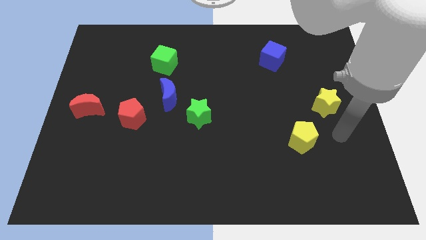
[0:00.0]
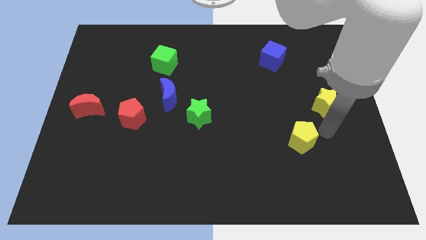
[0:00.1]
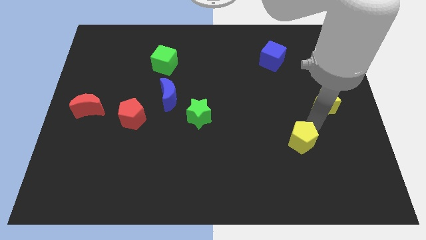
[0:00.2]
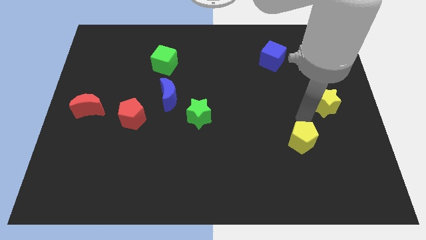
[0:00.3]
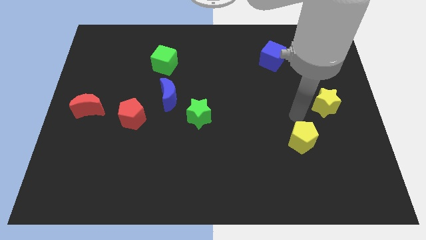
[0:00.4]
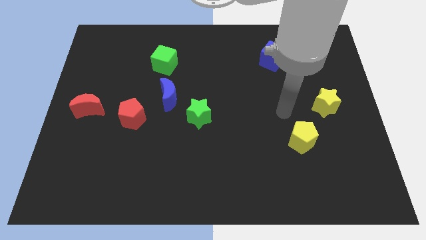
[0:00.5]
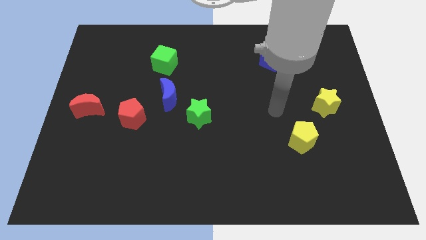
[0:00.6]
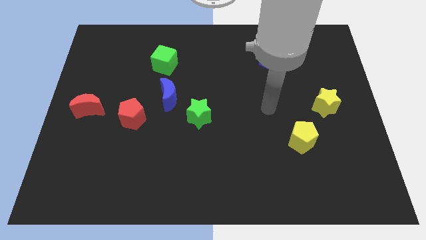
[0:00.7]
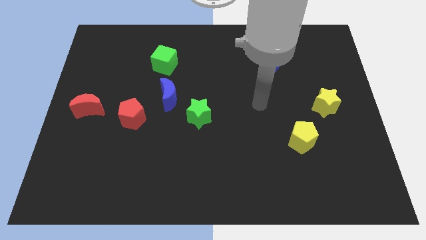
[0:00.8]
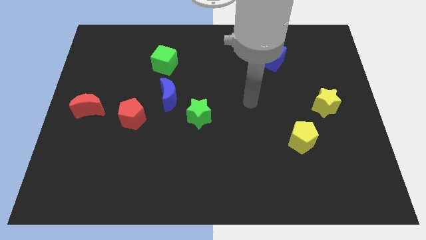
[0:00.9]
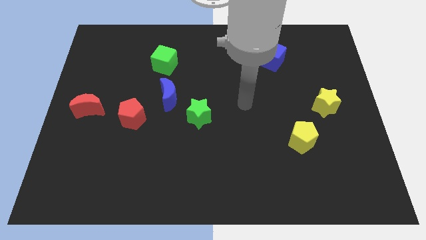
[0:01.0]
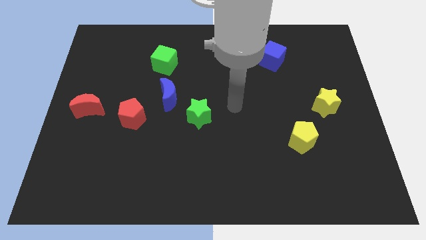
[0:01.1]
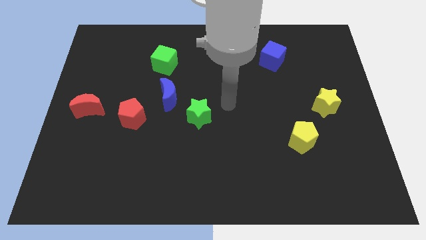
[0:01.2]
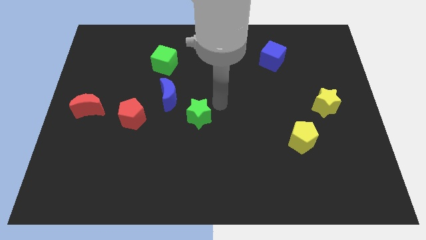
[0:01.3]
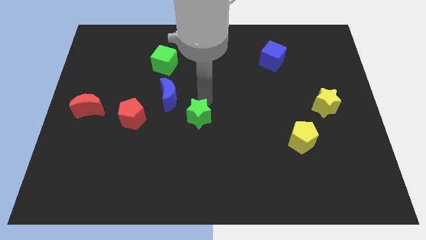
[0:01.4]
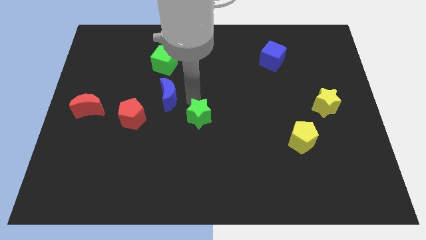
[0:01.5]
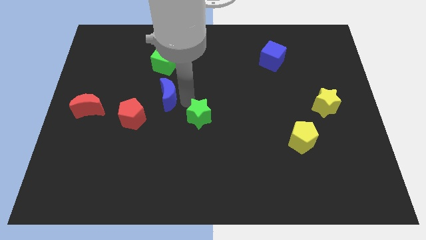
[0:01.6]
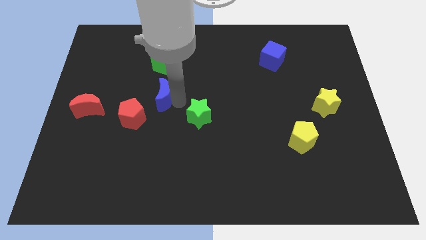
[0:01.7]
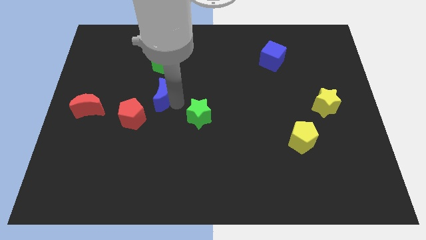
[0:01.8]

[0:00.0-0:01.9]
move the green star away from the blue moon

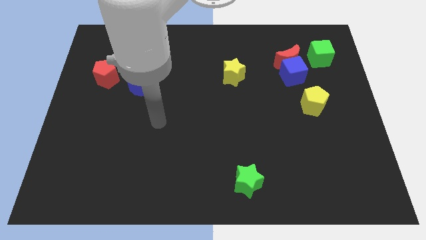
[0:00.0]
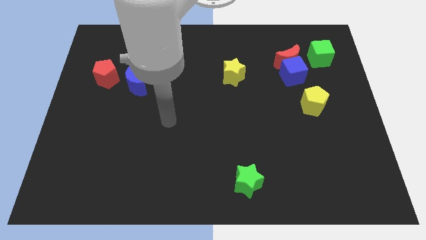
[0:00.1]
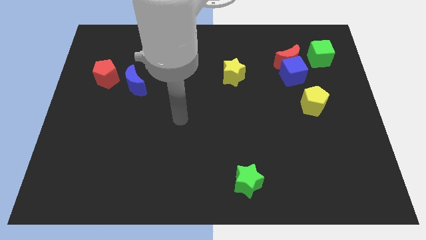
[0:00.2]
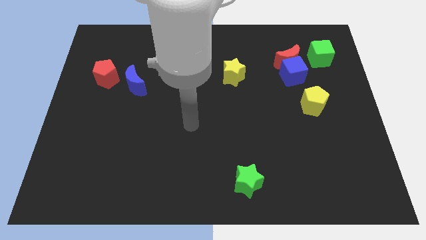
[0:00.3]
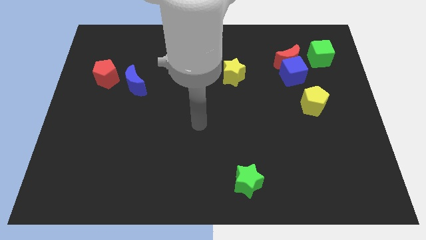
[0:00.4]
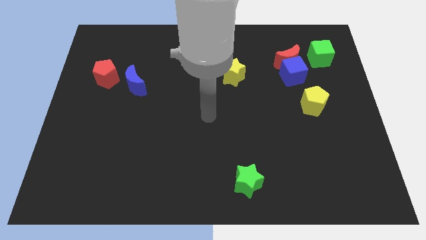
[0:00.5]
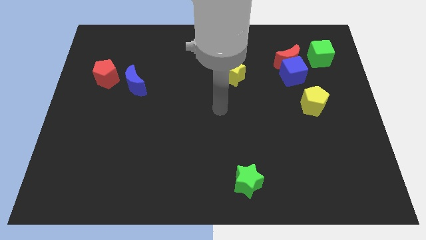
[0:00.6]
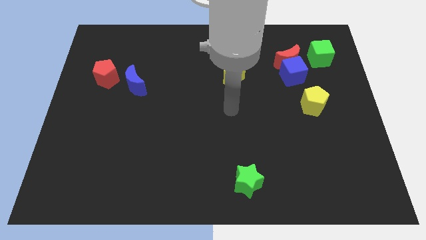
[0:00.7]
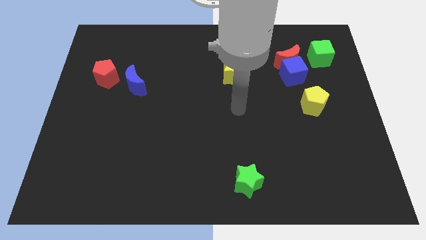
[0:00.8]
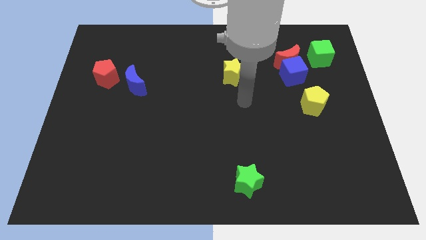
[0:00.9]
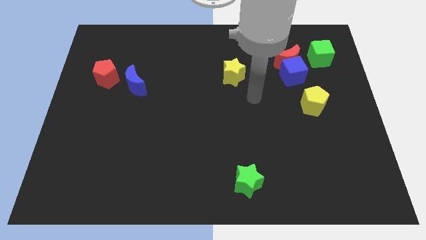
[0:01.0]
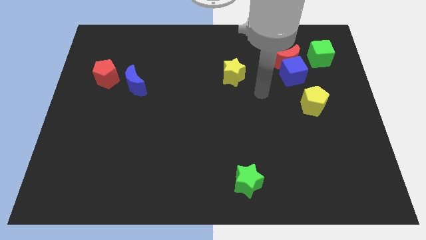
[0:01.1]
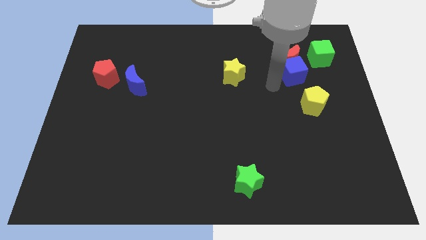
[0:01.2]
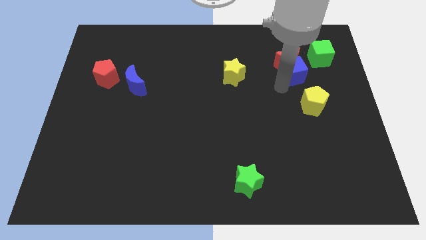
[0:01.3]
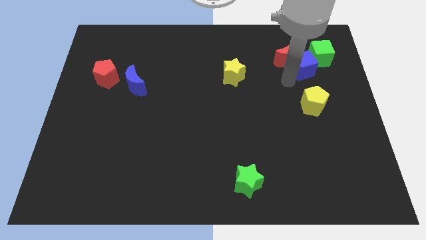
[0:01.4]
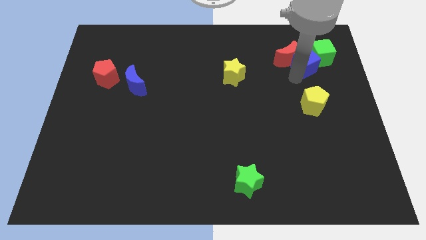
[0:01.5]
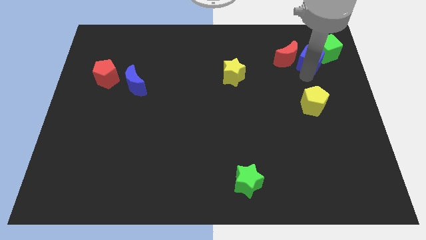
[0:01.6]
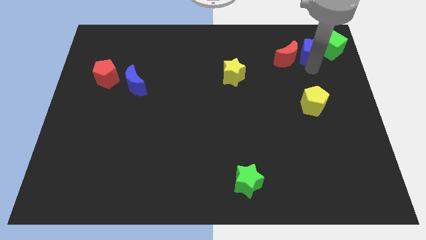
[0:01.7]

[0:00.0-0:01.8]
pull the red moon apart from the blue cube and green cube

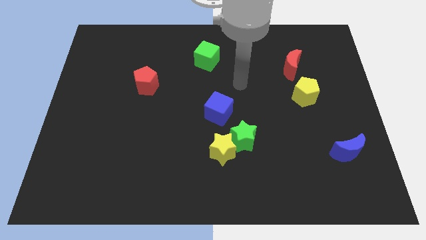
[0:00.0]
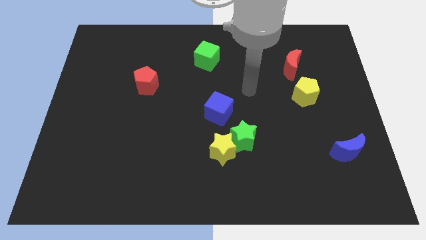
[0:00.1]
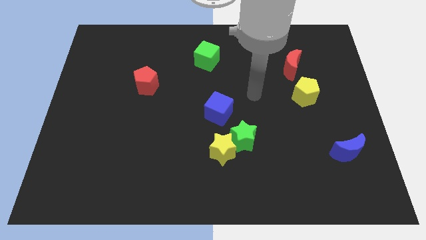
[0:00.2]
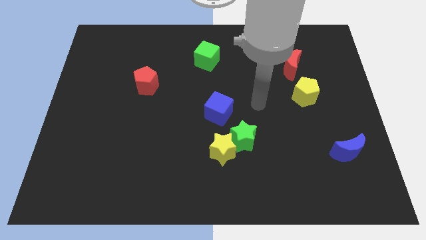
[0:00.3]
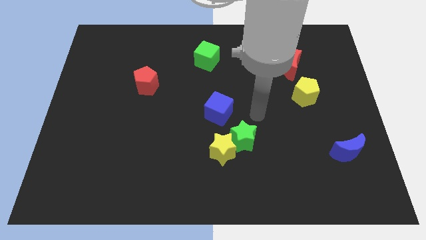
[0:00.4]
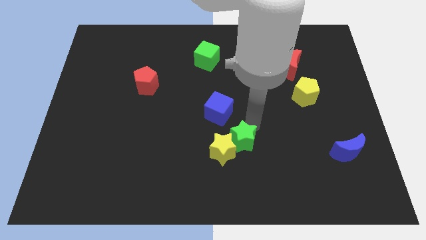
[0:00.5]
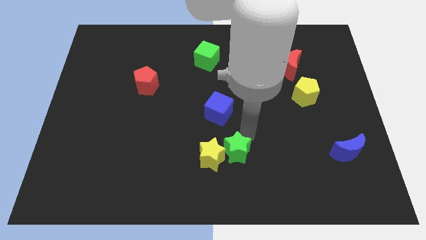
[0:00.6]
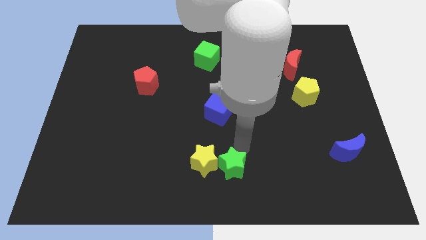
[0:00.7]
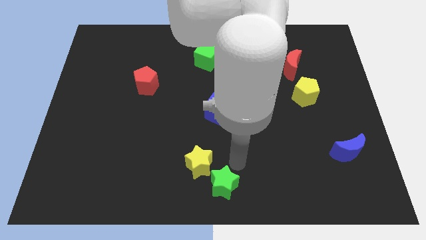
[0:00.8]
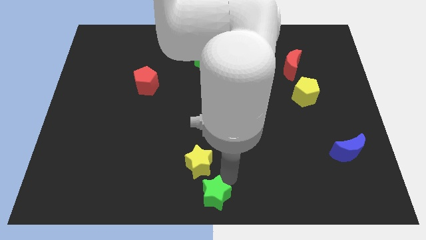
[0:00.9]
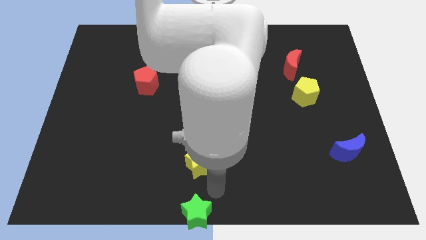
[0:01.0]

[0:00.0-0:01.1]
pull the yellow star apart from the green star

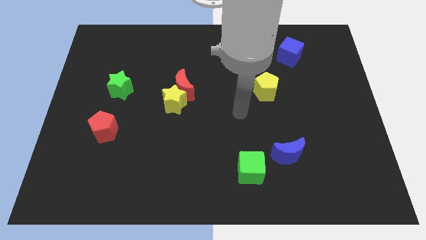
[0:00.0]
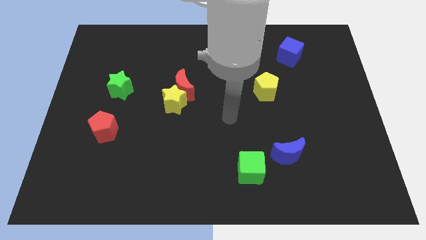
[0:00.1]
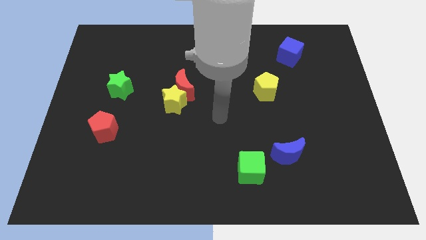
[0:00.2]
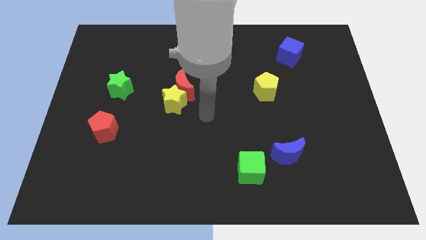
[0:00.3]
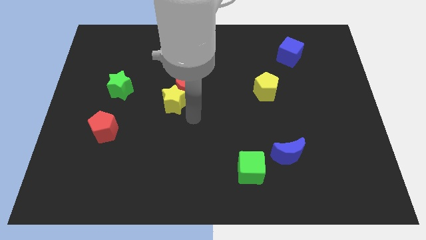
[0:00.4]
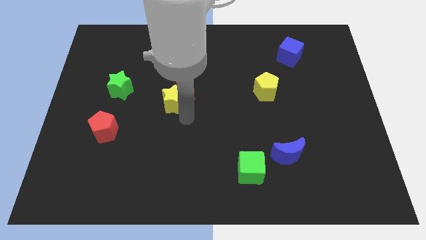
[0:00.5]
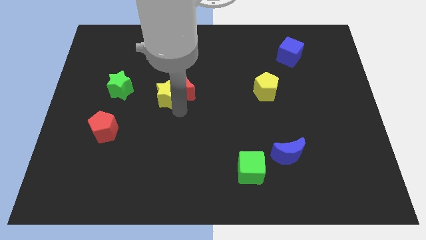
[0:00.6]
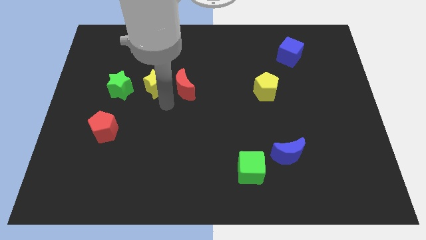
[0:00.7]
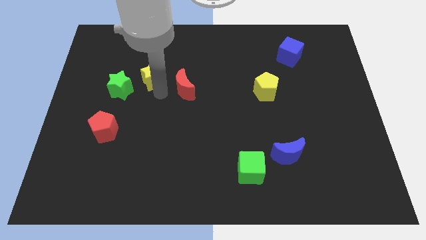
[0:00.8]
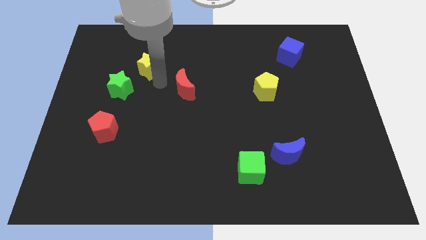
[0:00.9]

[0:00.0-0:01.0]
separate the red moon from the yellow star

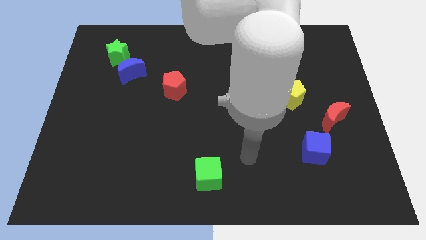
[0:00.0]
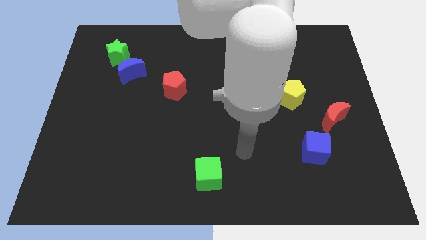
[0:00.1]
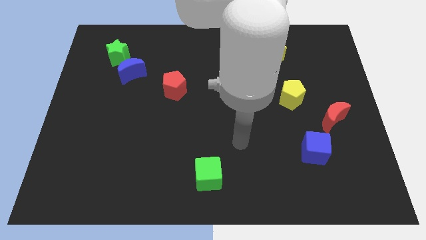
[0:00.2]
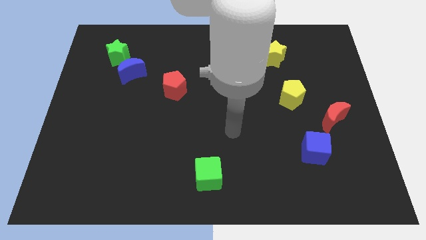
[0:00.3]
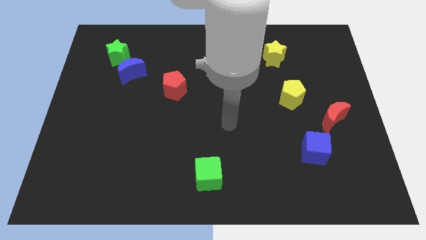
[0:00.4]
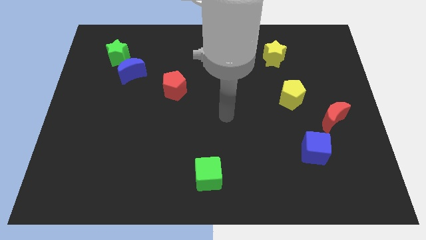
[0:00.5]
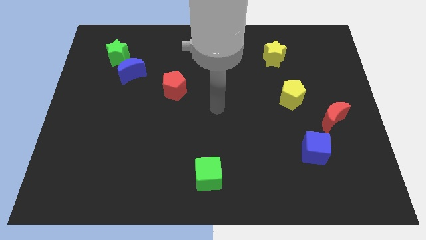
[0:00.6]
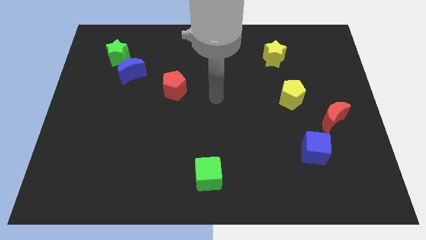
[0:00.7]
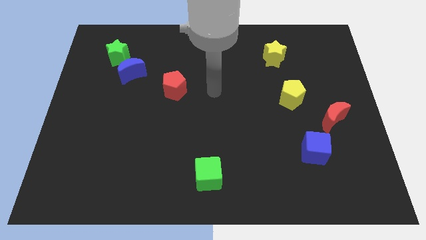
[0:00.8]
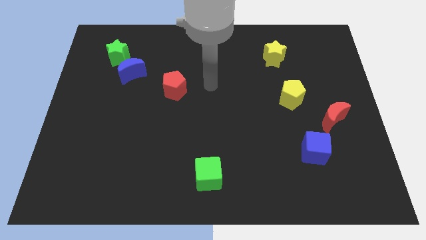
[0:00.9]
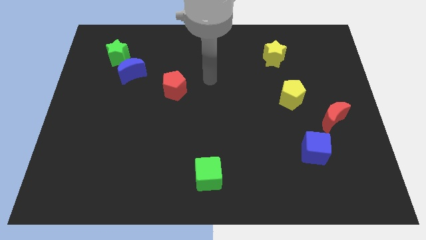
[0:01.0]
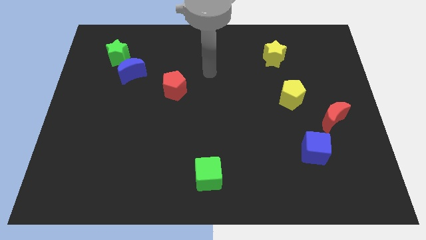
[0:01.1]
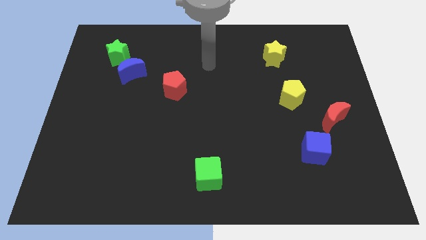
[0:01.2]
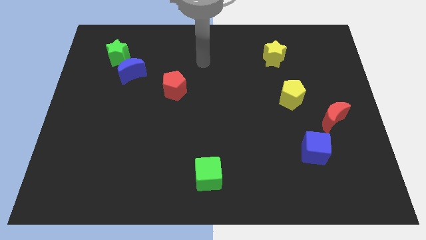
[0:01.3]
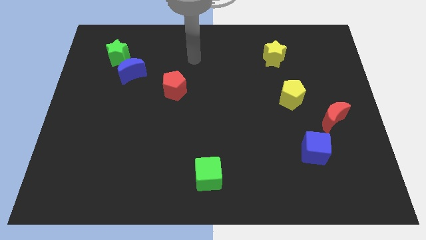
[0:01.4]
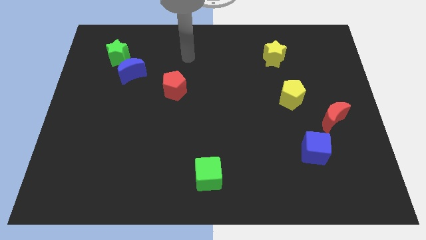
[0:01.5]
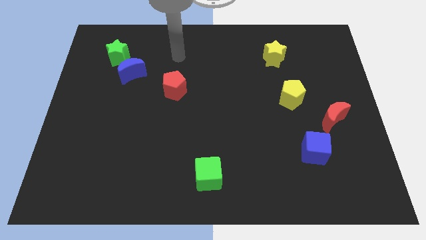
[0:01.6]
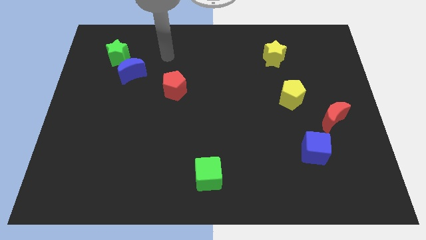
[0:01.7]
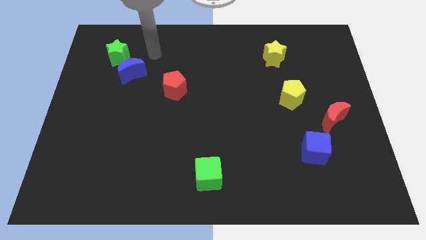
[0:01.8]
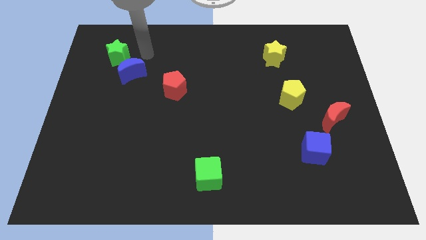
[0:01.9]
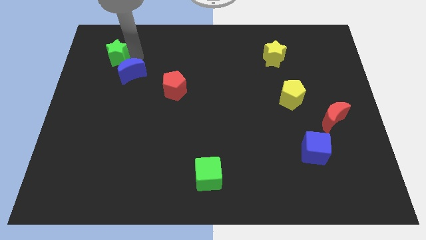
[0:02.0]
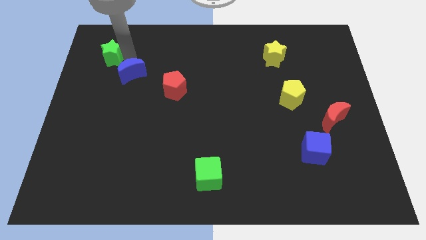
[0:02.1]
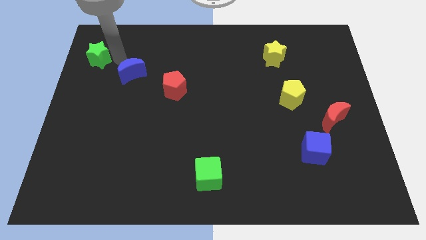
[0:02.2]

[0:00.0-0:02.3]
pull the blue moon apart from the green star

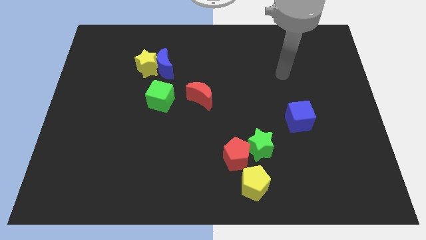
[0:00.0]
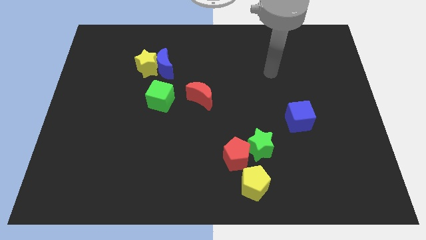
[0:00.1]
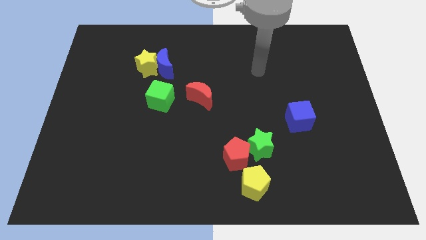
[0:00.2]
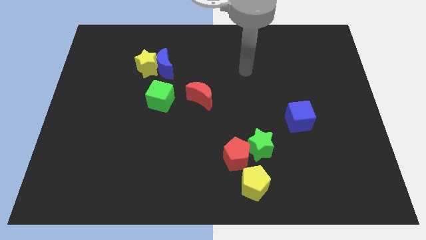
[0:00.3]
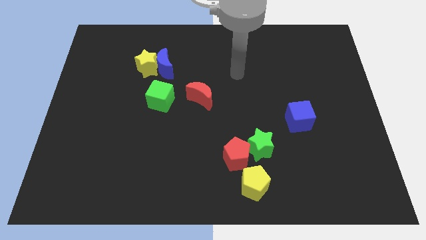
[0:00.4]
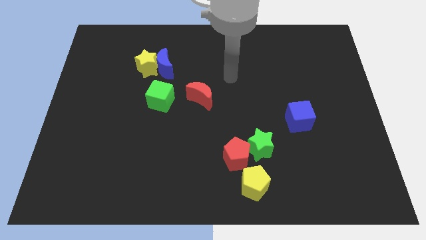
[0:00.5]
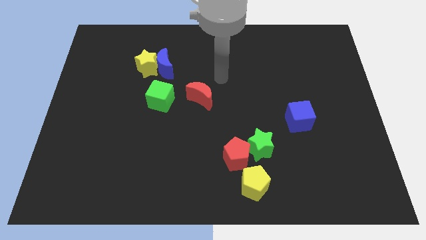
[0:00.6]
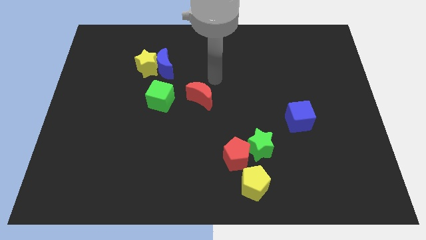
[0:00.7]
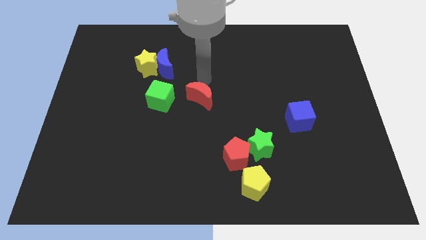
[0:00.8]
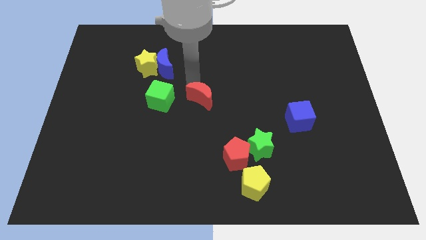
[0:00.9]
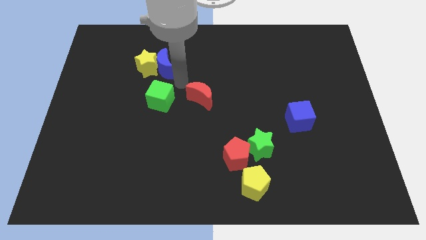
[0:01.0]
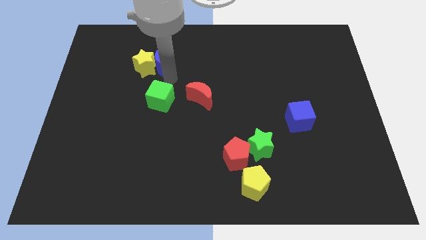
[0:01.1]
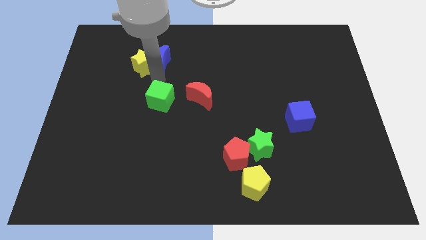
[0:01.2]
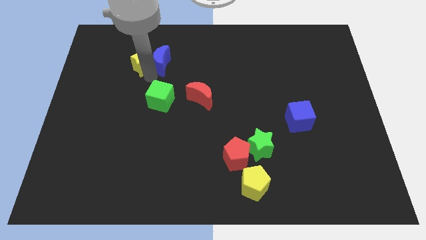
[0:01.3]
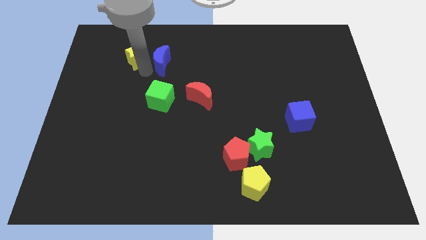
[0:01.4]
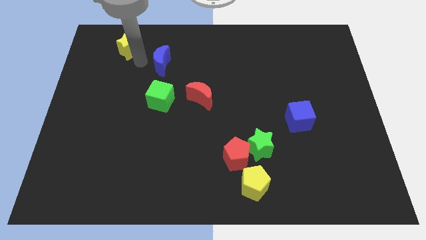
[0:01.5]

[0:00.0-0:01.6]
separate the blue moon from the yellow star
